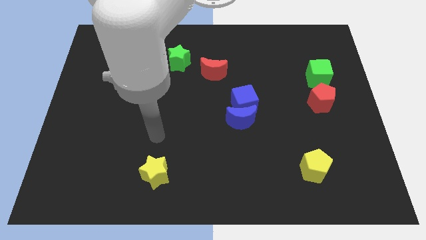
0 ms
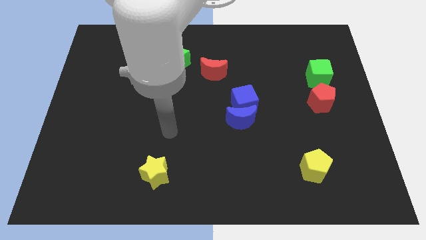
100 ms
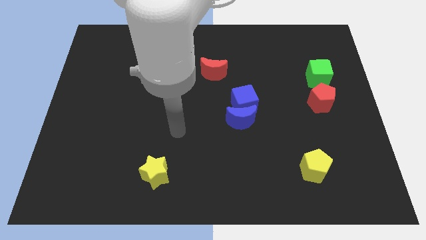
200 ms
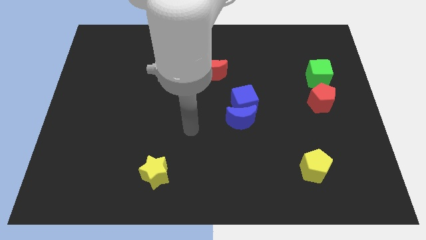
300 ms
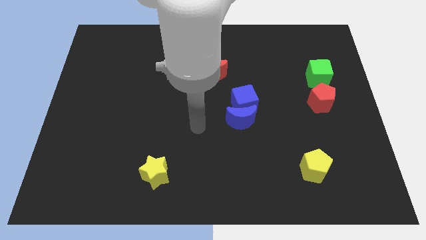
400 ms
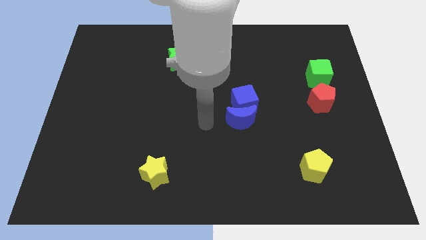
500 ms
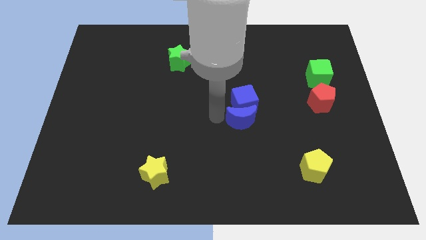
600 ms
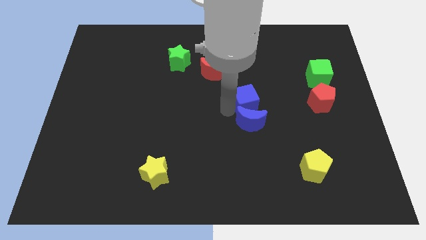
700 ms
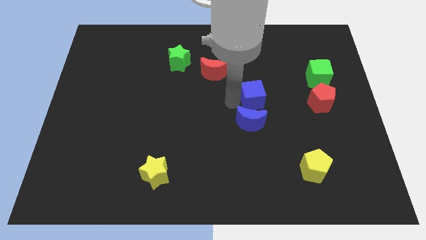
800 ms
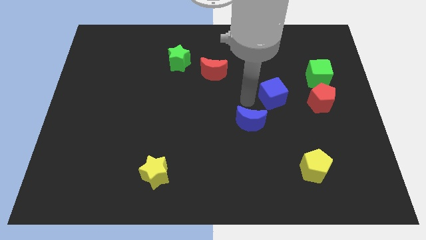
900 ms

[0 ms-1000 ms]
separate the blue moon from the blue cube

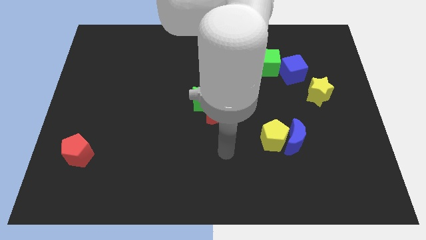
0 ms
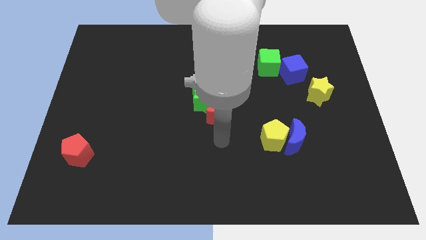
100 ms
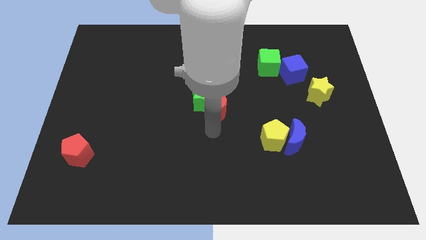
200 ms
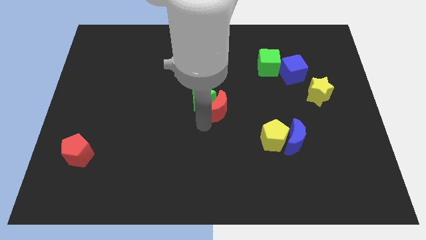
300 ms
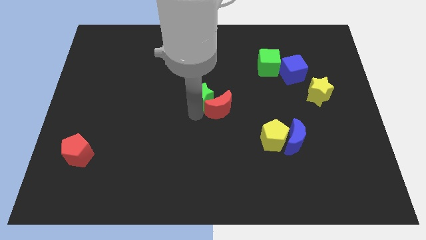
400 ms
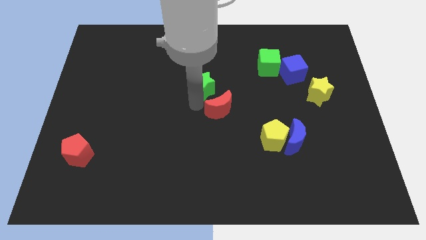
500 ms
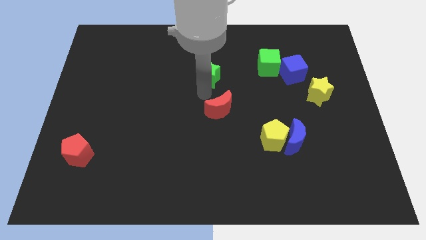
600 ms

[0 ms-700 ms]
separate the red moon from the green star

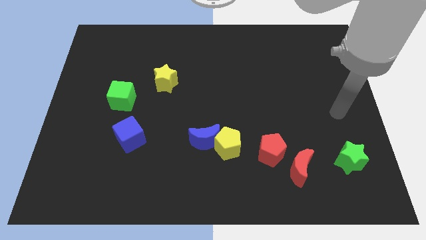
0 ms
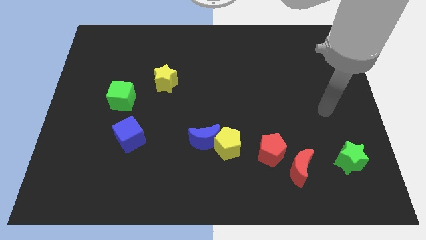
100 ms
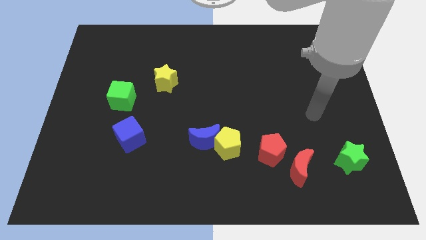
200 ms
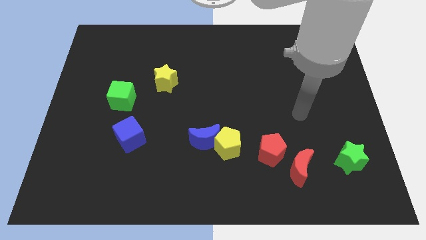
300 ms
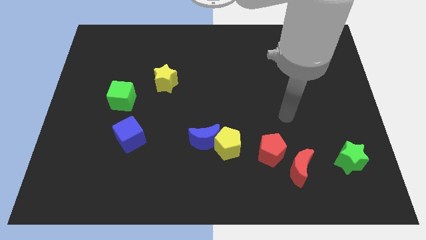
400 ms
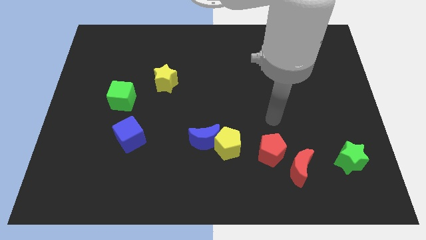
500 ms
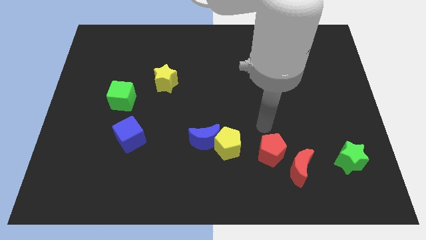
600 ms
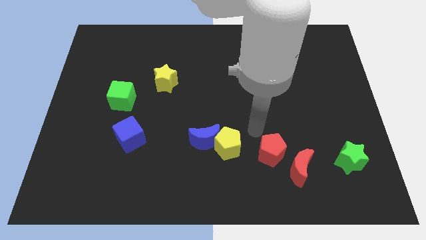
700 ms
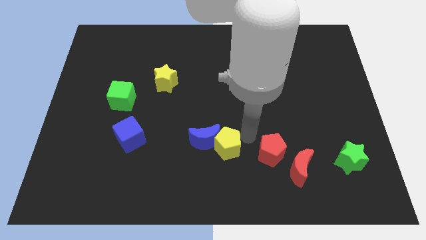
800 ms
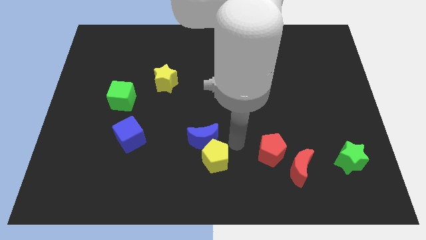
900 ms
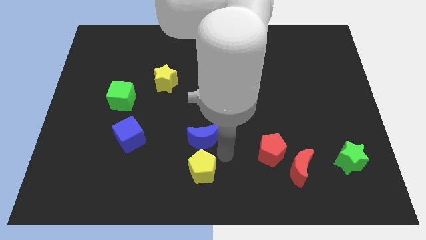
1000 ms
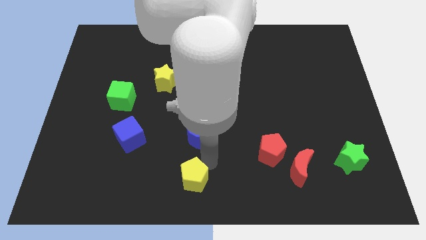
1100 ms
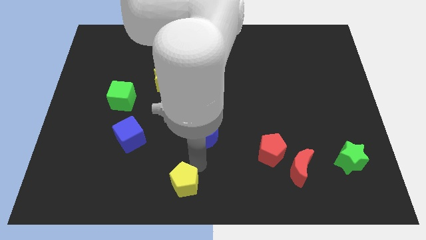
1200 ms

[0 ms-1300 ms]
separate the blue moon from the yellow pentagon

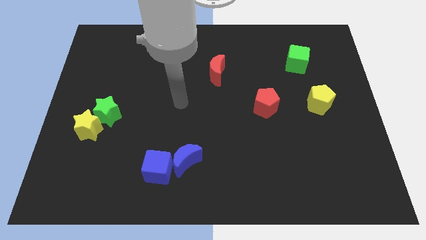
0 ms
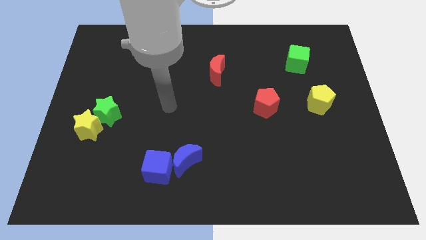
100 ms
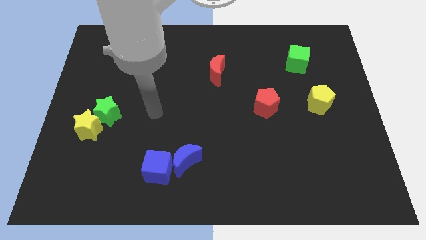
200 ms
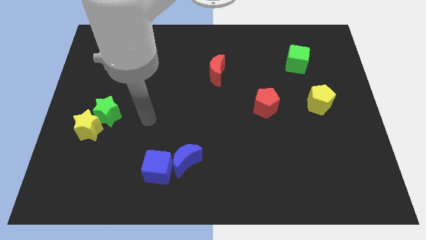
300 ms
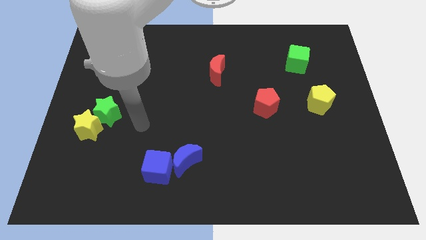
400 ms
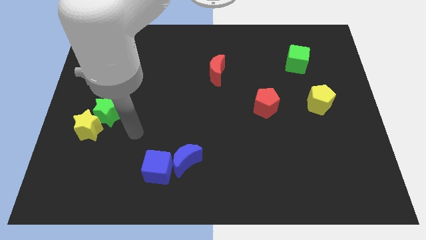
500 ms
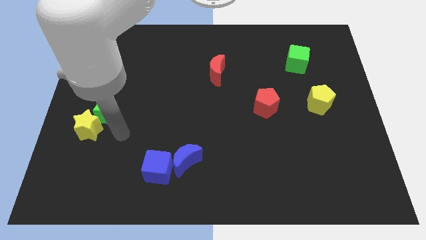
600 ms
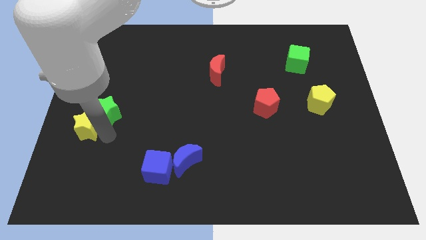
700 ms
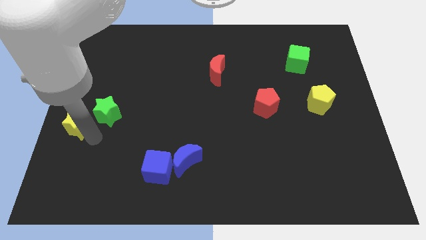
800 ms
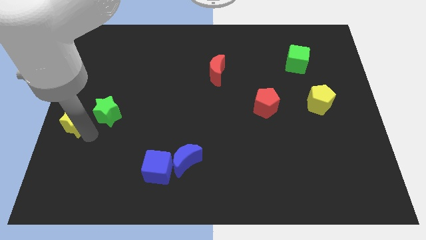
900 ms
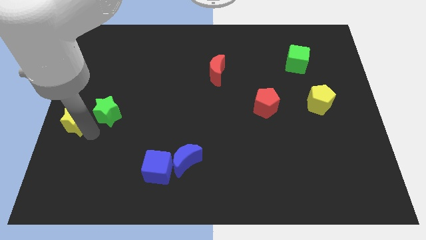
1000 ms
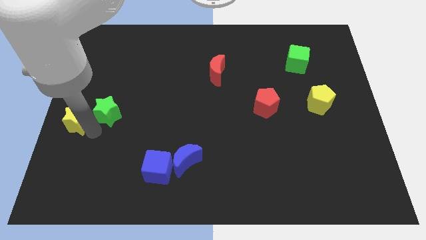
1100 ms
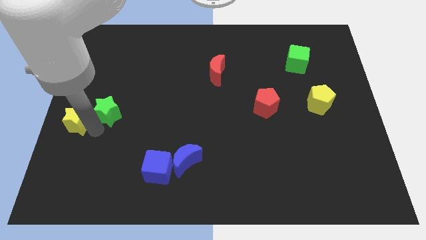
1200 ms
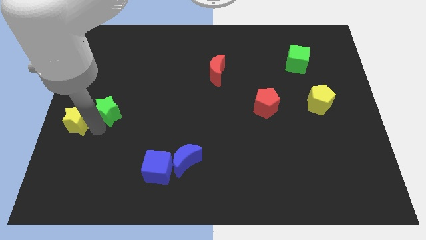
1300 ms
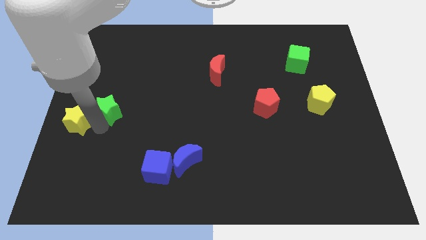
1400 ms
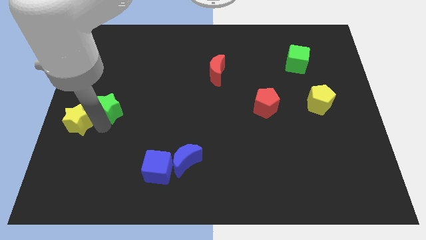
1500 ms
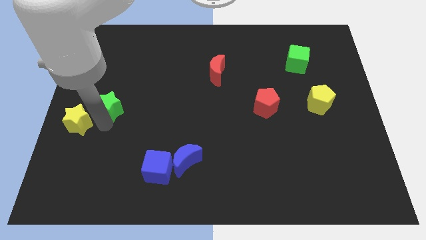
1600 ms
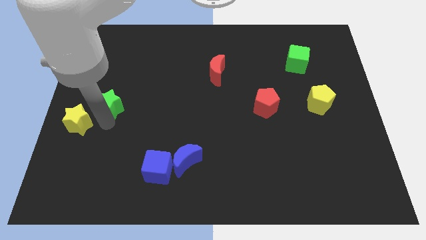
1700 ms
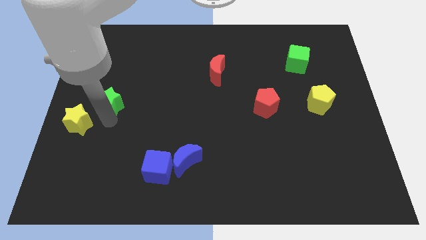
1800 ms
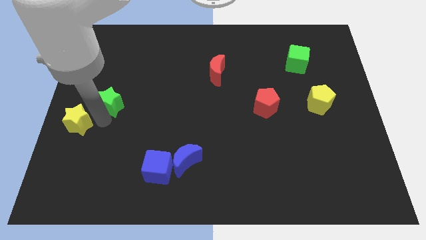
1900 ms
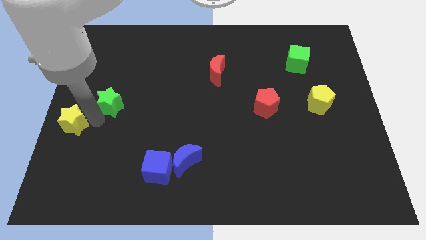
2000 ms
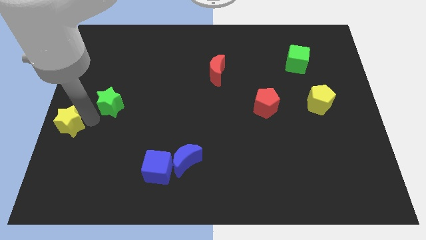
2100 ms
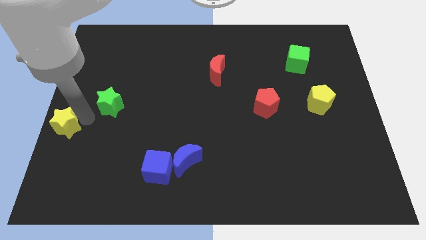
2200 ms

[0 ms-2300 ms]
pull the green star apart from the yellow star

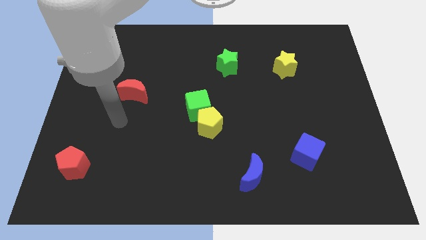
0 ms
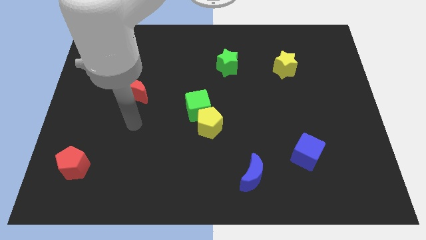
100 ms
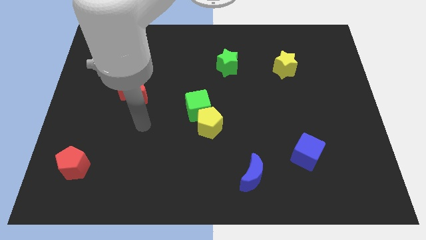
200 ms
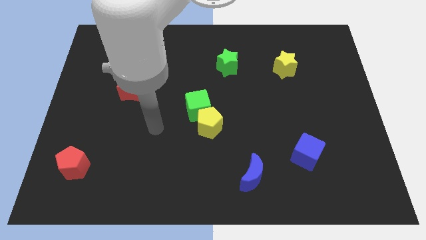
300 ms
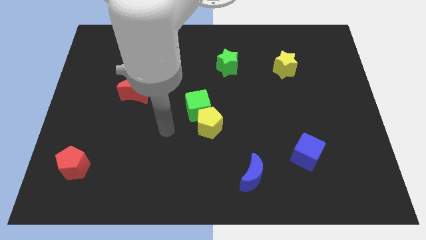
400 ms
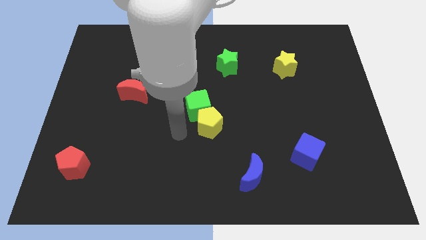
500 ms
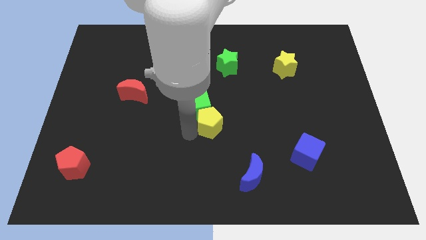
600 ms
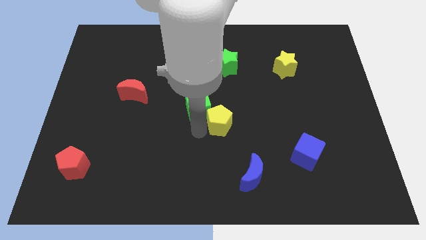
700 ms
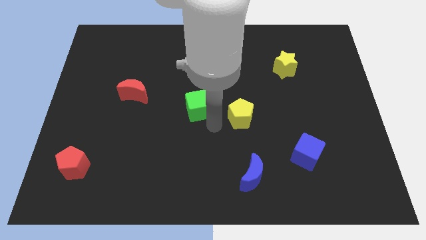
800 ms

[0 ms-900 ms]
separate the green cube from the yellow pentagon

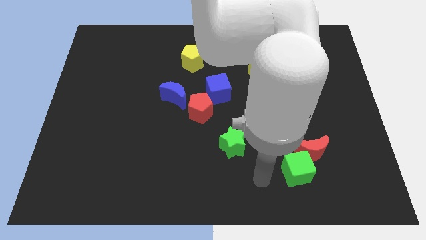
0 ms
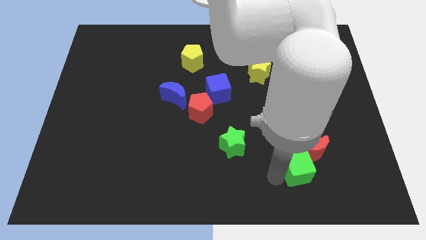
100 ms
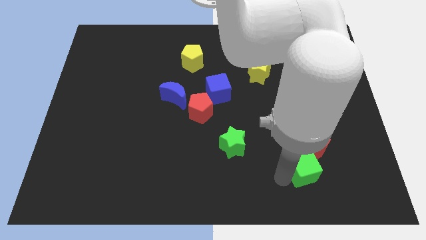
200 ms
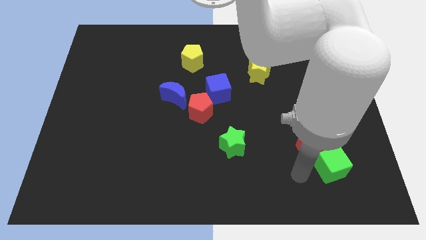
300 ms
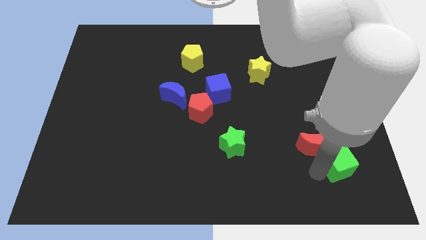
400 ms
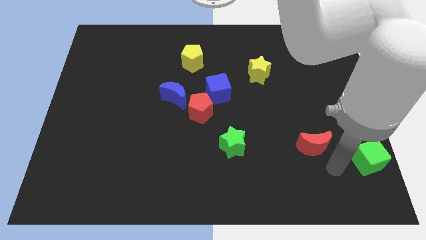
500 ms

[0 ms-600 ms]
move the red moon away from the green cube

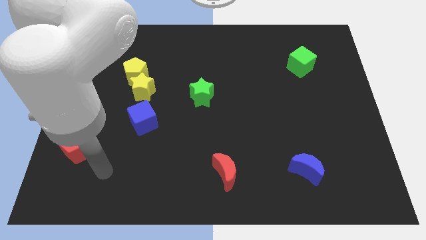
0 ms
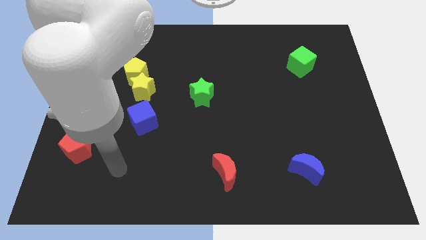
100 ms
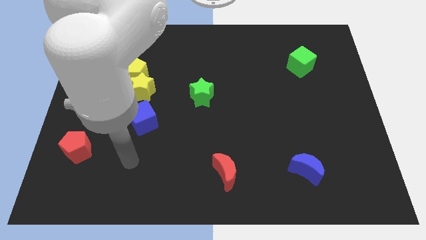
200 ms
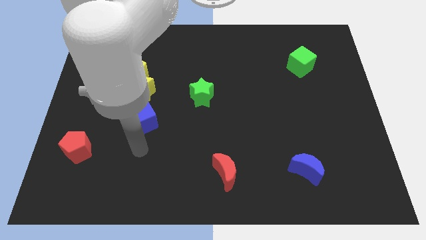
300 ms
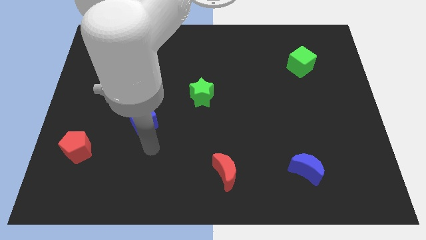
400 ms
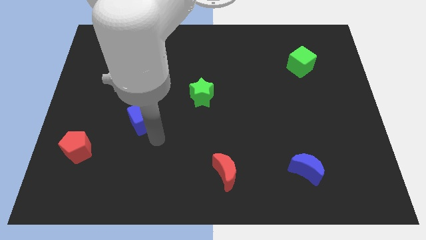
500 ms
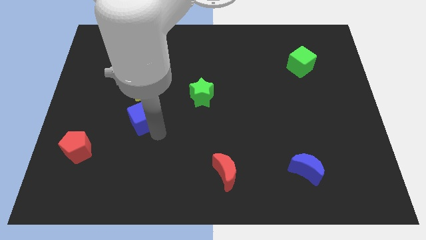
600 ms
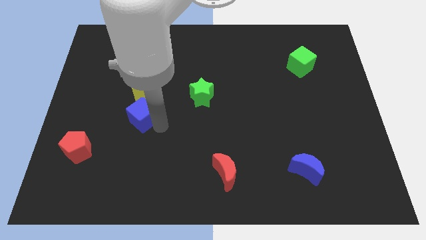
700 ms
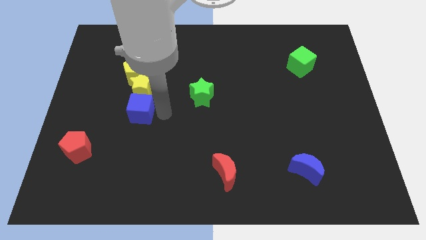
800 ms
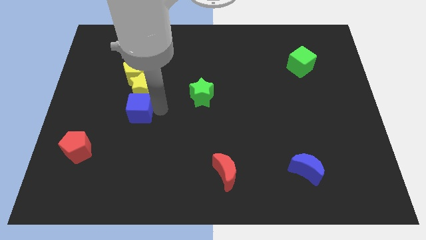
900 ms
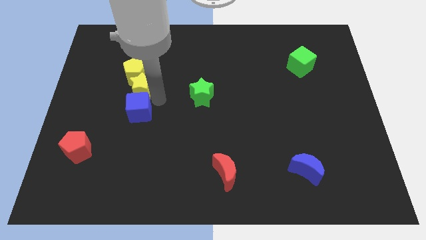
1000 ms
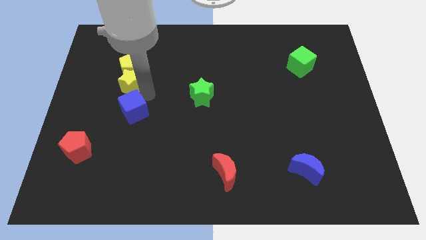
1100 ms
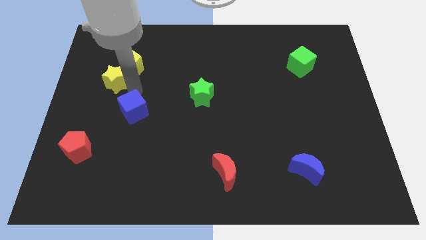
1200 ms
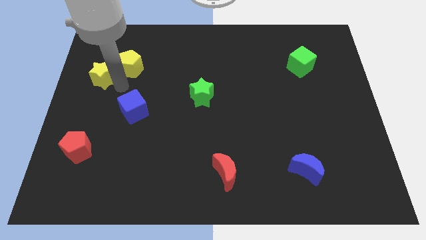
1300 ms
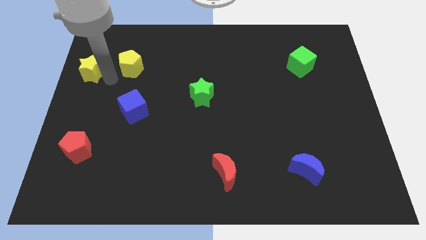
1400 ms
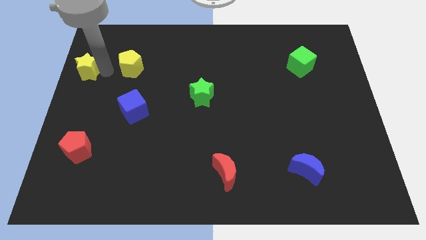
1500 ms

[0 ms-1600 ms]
separate the yellow pentagon from the yellow star

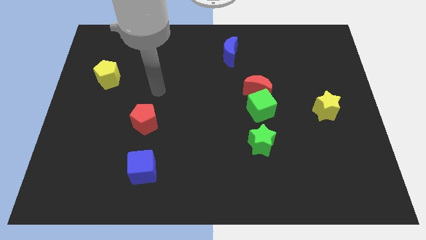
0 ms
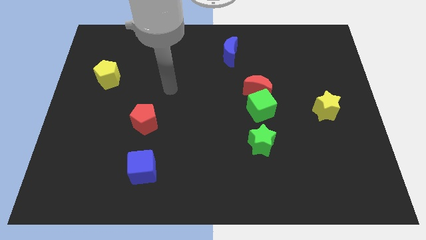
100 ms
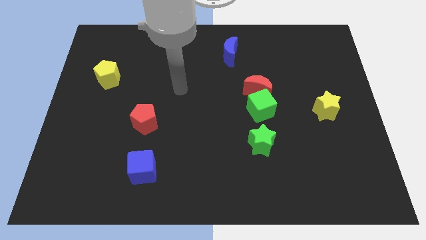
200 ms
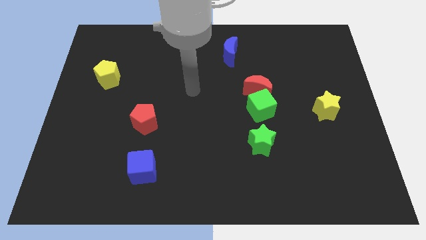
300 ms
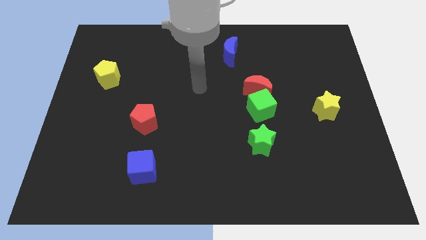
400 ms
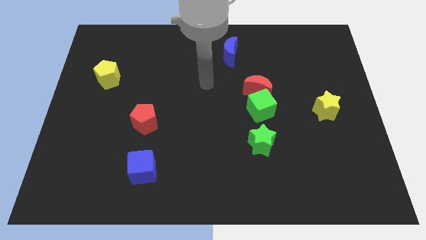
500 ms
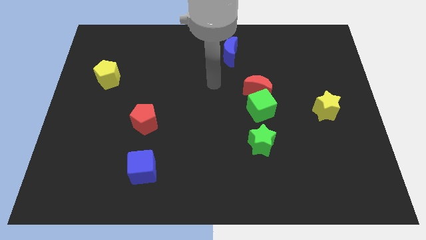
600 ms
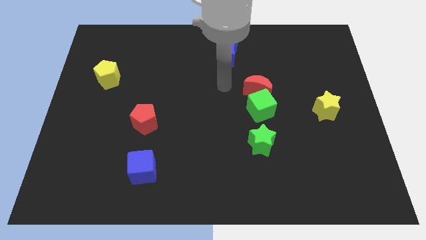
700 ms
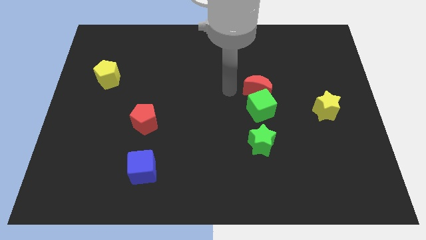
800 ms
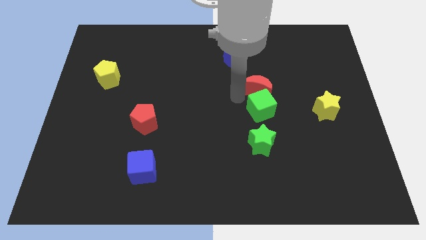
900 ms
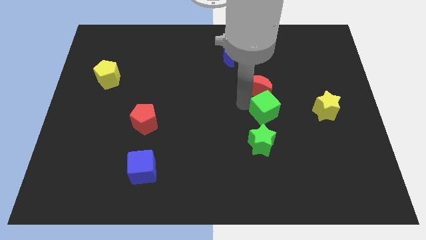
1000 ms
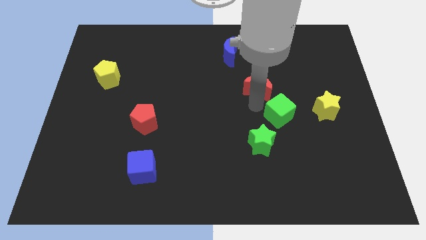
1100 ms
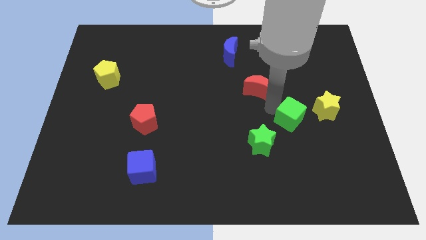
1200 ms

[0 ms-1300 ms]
pull the red moon apart from the green cube
